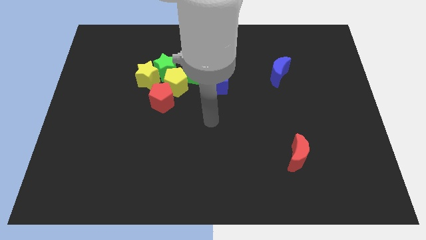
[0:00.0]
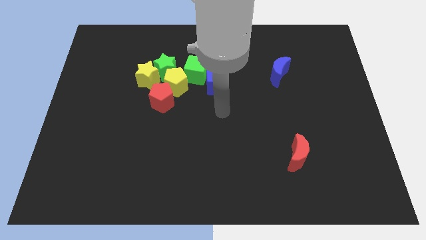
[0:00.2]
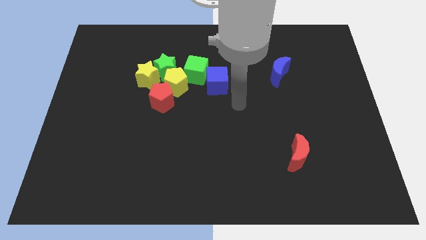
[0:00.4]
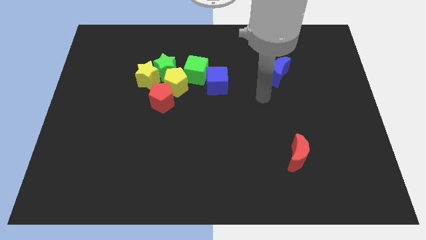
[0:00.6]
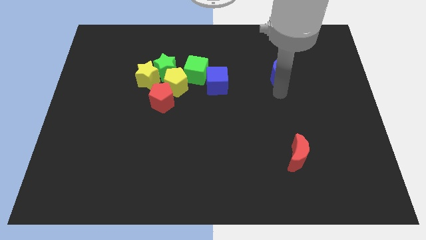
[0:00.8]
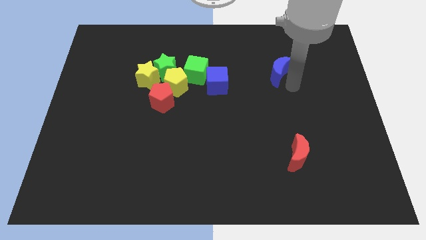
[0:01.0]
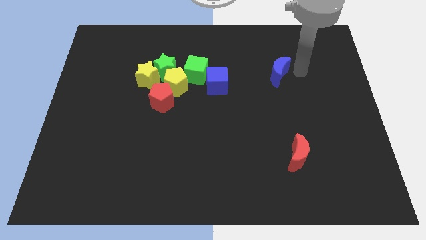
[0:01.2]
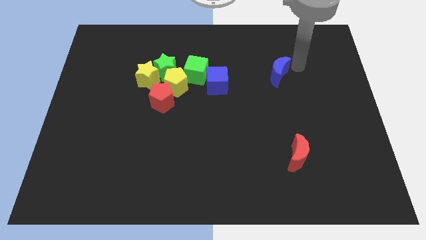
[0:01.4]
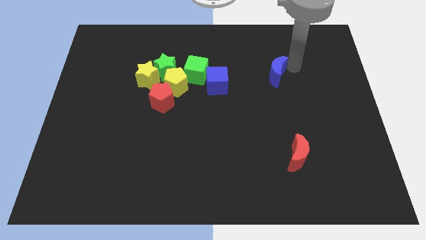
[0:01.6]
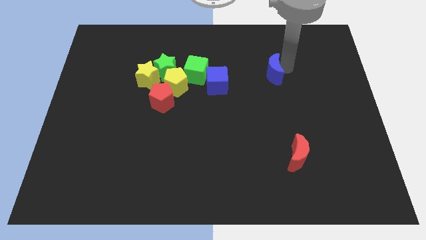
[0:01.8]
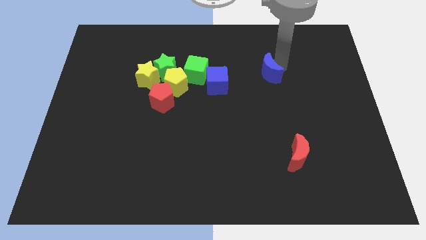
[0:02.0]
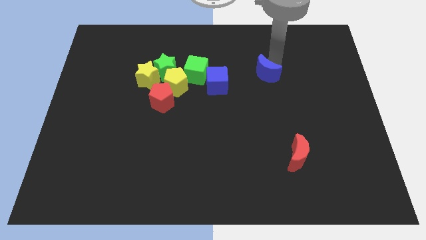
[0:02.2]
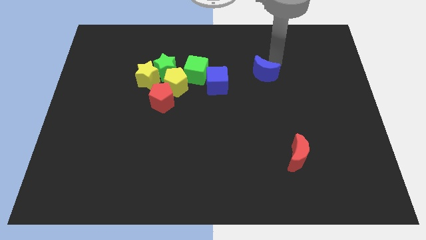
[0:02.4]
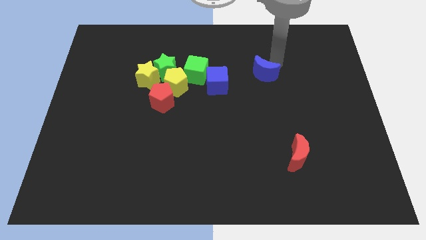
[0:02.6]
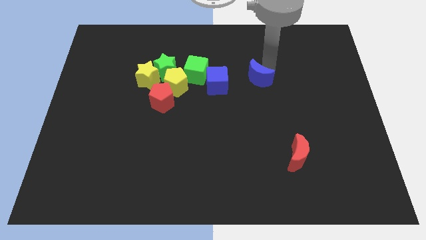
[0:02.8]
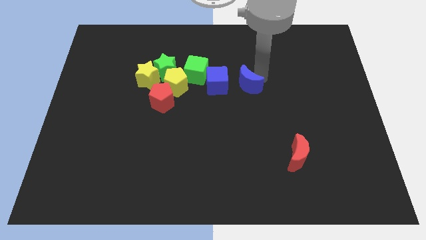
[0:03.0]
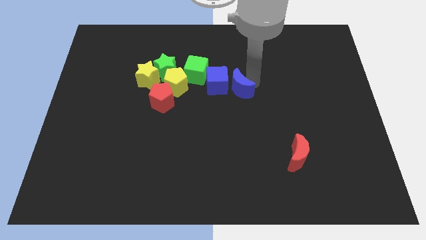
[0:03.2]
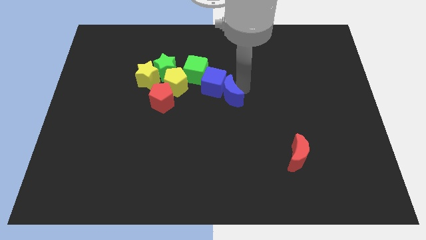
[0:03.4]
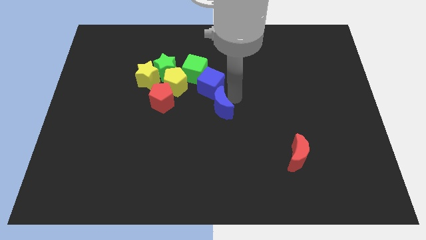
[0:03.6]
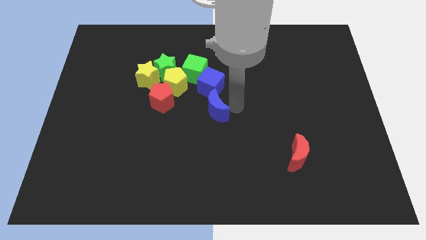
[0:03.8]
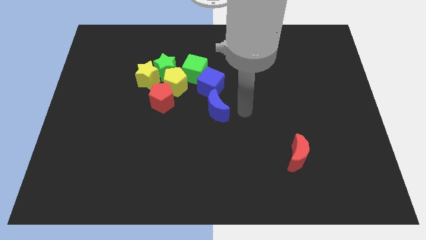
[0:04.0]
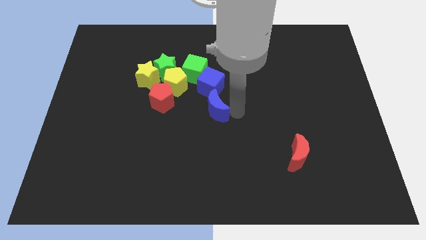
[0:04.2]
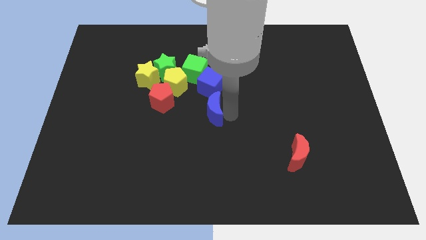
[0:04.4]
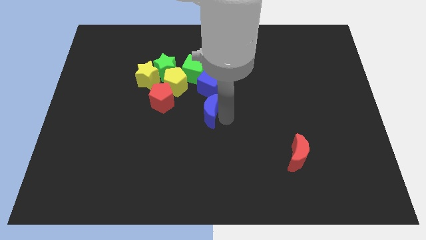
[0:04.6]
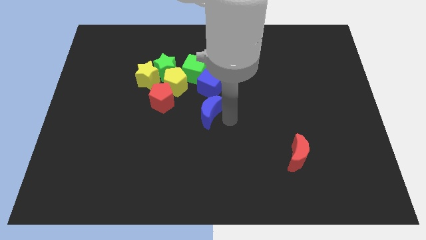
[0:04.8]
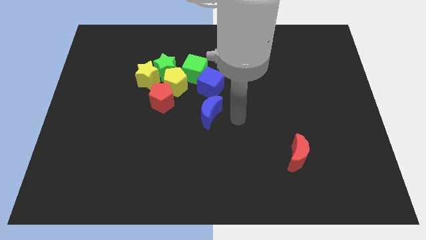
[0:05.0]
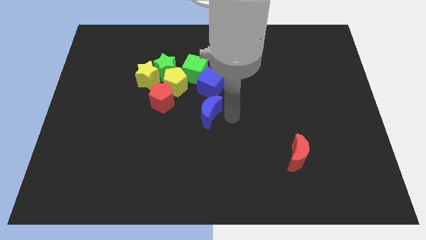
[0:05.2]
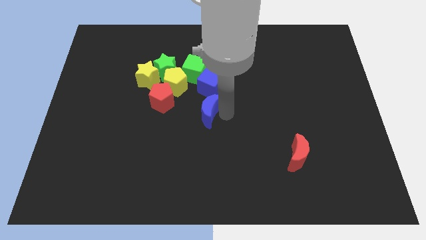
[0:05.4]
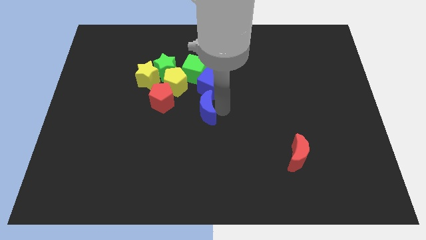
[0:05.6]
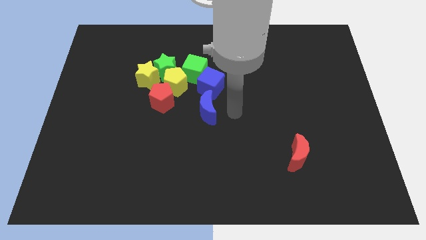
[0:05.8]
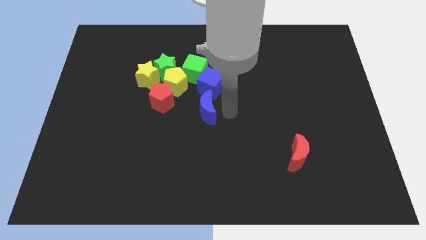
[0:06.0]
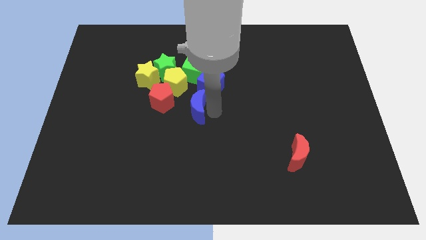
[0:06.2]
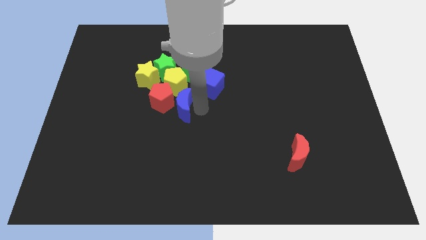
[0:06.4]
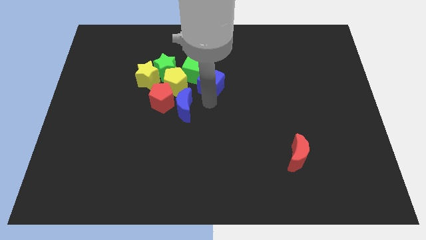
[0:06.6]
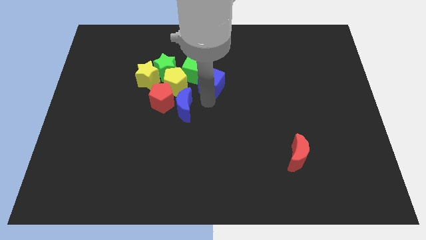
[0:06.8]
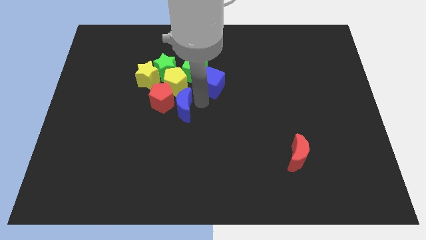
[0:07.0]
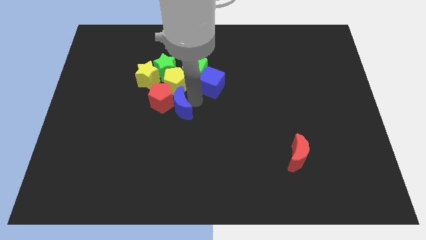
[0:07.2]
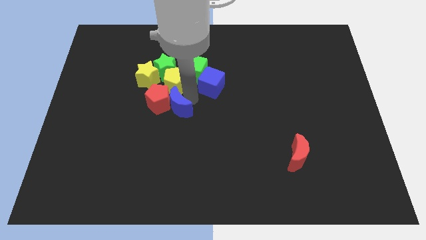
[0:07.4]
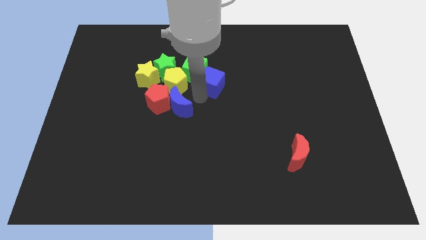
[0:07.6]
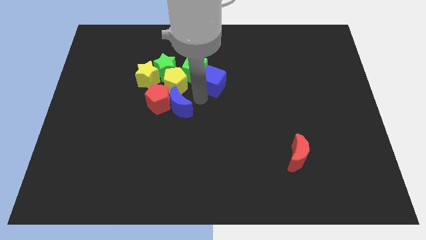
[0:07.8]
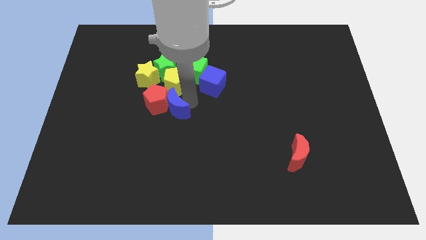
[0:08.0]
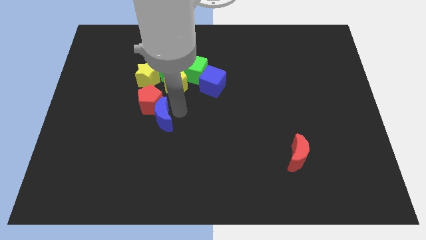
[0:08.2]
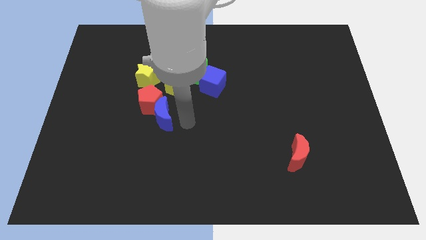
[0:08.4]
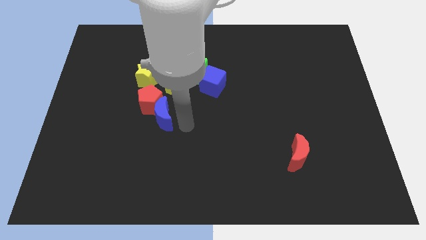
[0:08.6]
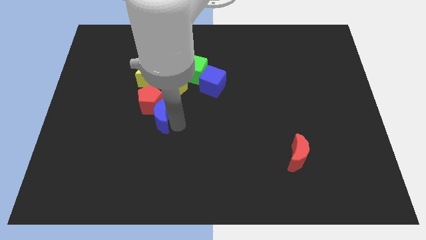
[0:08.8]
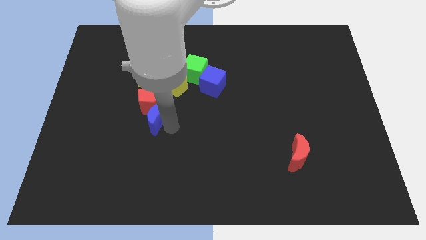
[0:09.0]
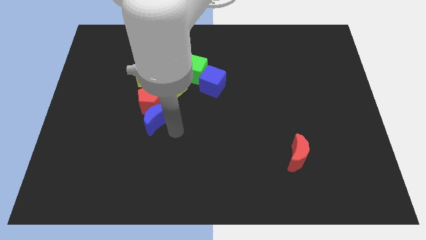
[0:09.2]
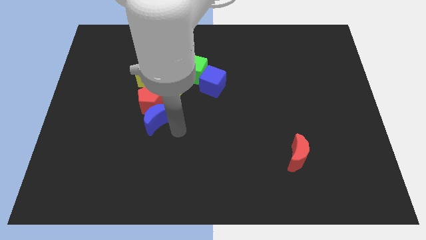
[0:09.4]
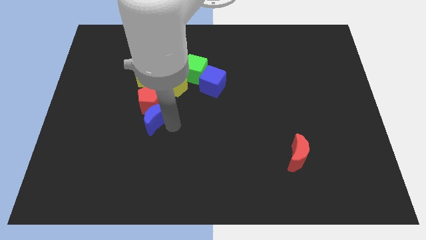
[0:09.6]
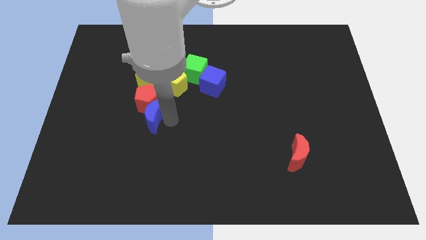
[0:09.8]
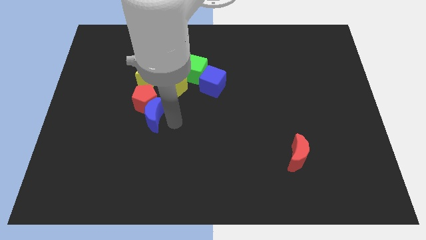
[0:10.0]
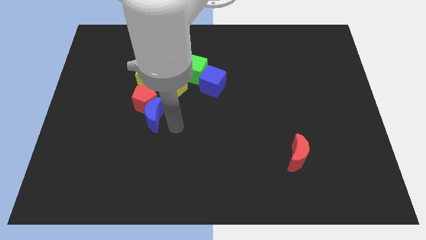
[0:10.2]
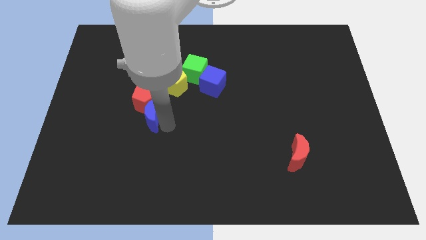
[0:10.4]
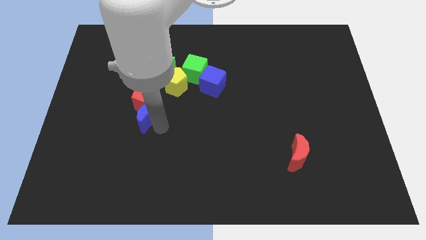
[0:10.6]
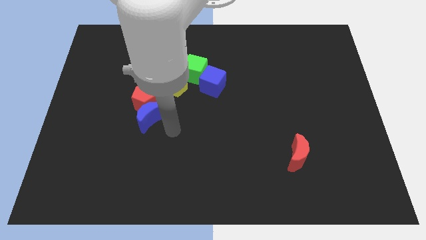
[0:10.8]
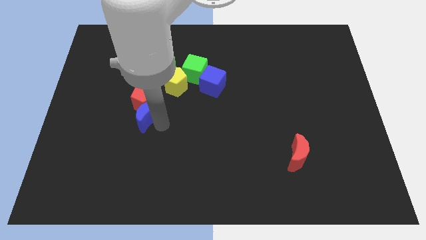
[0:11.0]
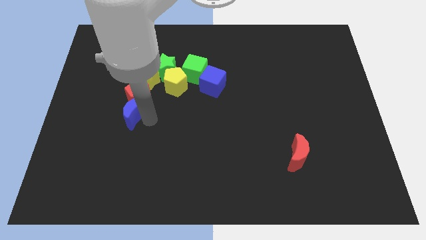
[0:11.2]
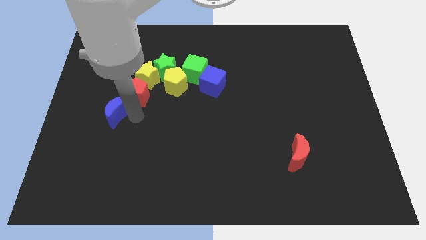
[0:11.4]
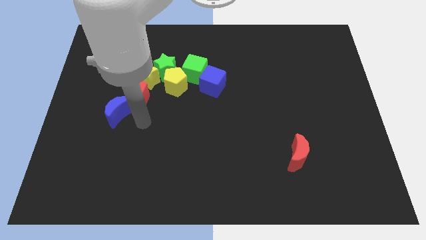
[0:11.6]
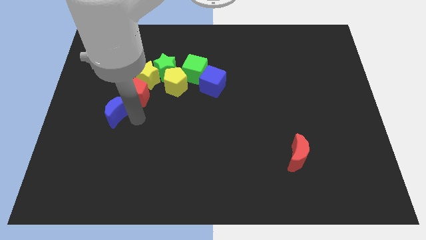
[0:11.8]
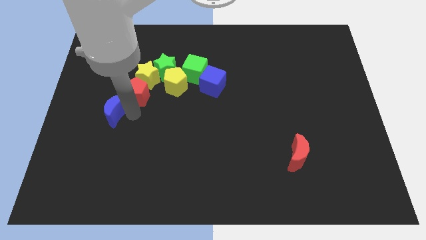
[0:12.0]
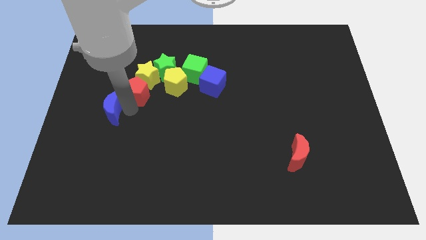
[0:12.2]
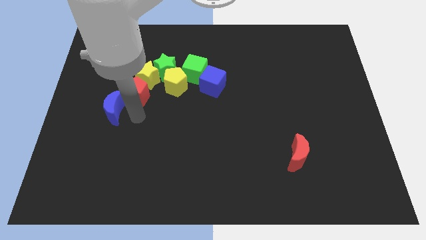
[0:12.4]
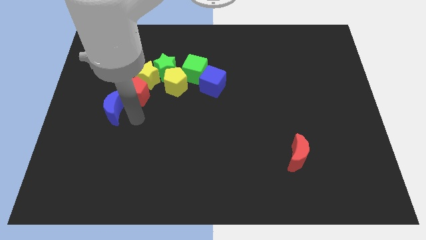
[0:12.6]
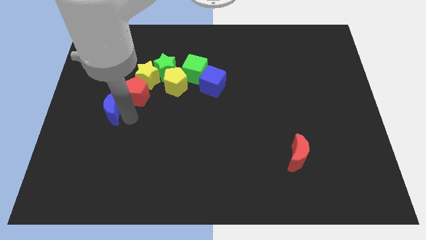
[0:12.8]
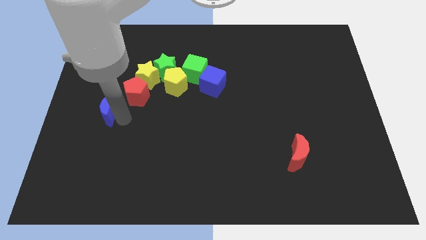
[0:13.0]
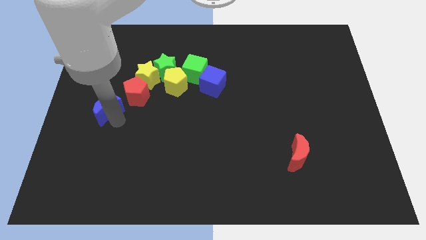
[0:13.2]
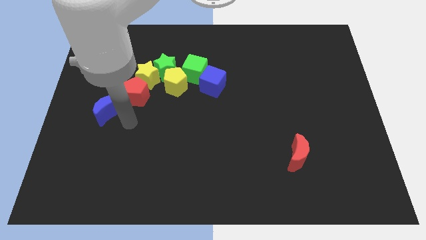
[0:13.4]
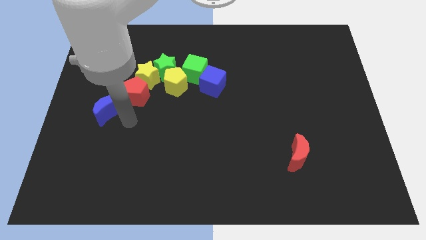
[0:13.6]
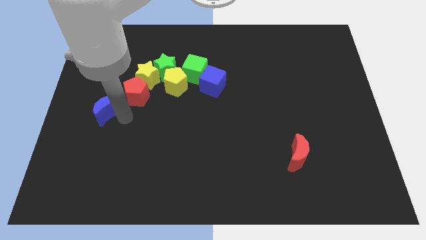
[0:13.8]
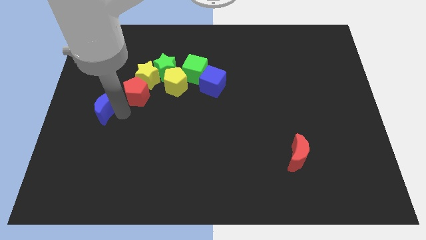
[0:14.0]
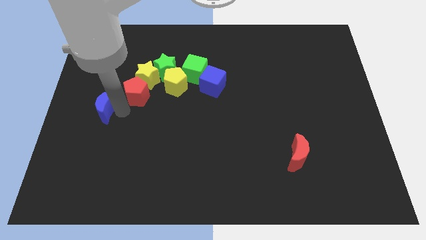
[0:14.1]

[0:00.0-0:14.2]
put the blue moon to the left side
